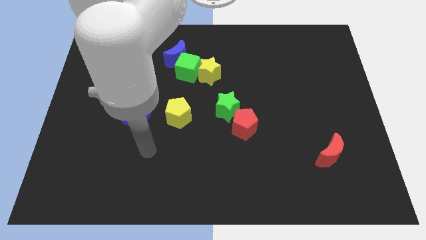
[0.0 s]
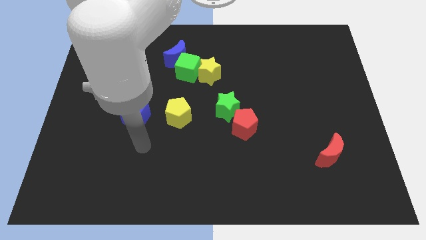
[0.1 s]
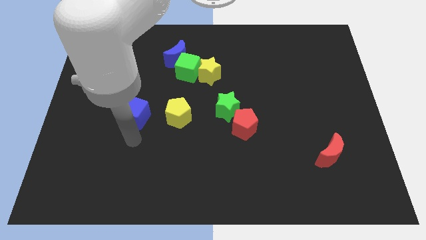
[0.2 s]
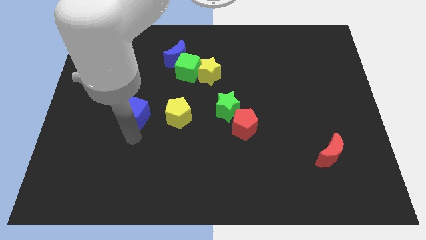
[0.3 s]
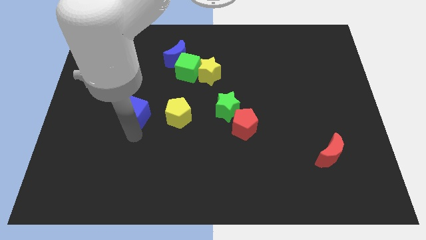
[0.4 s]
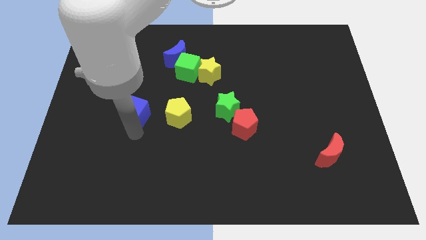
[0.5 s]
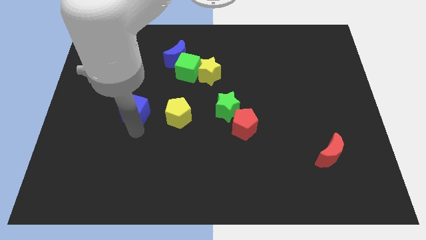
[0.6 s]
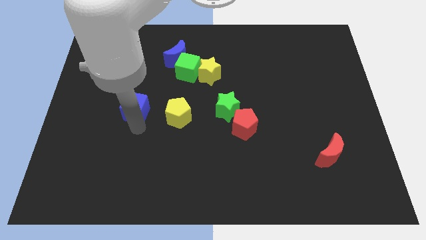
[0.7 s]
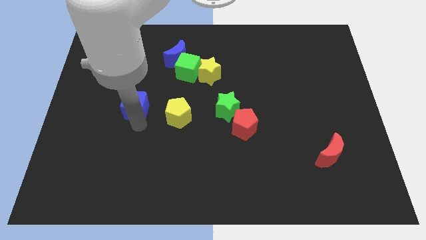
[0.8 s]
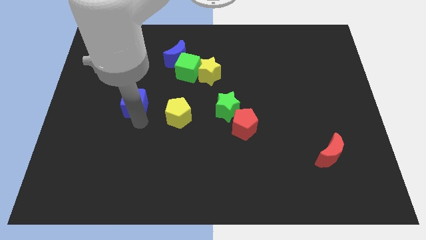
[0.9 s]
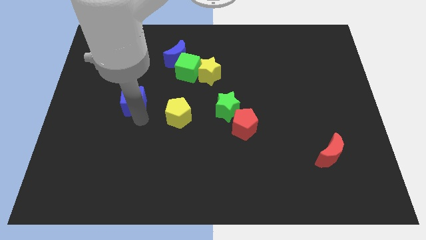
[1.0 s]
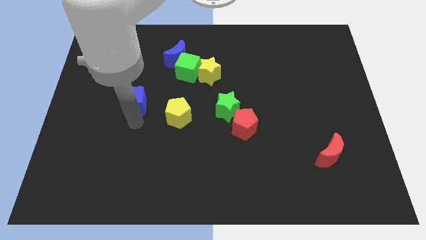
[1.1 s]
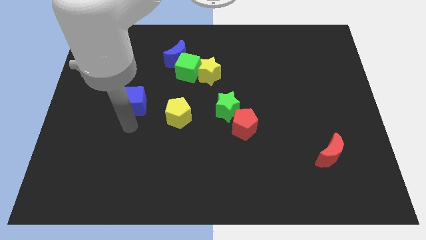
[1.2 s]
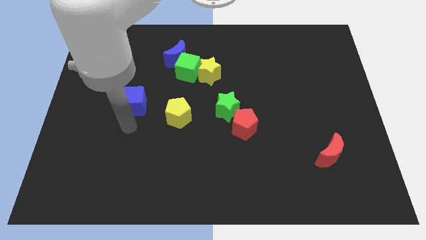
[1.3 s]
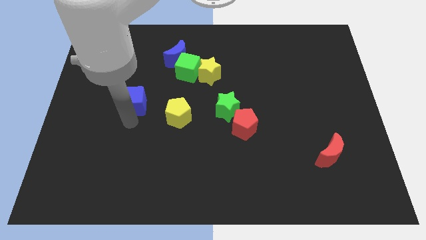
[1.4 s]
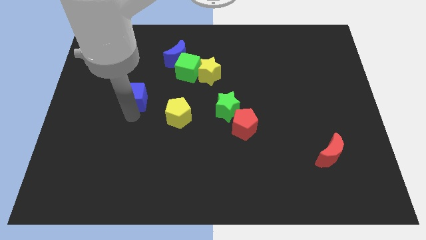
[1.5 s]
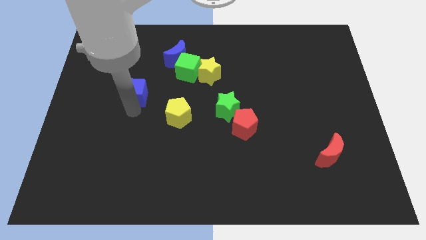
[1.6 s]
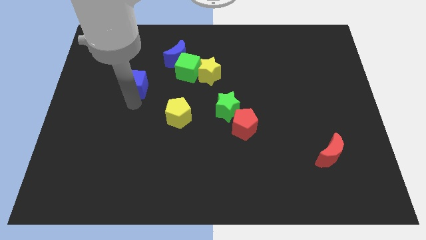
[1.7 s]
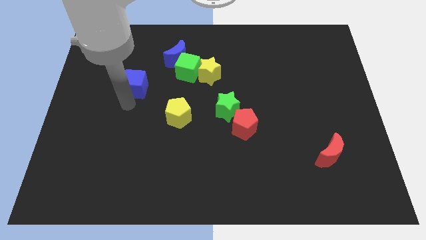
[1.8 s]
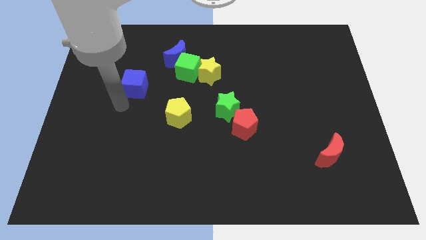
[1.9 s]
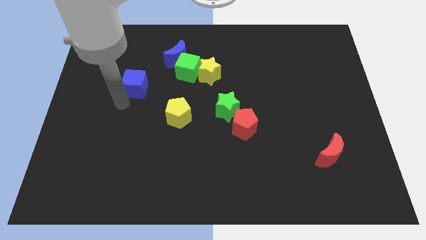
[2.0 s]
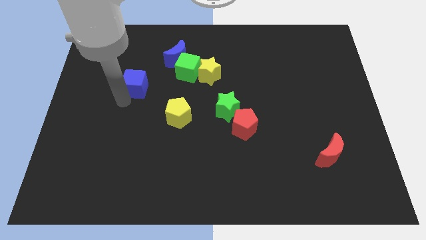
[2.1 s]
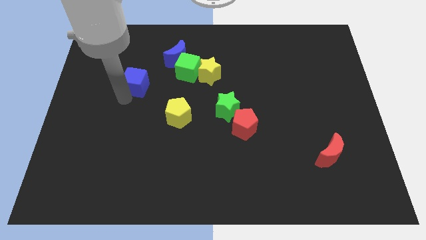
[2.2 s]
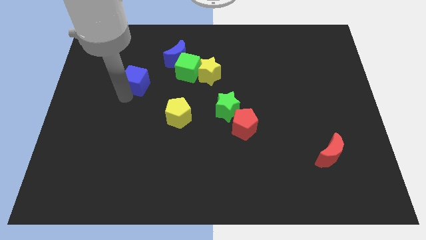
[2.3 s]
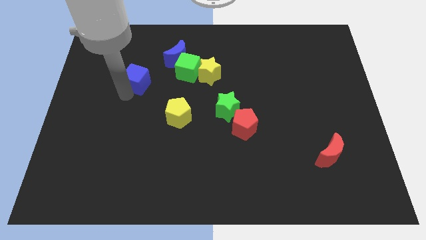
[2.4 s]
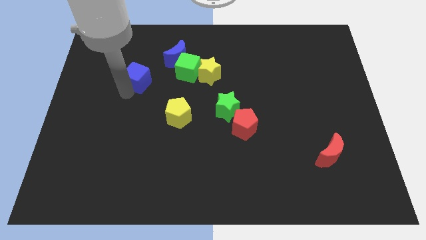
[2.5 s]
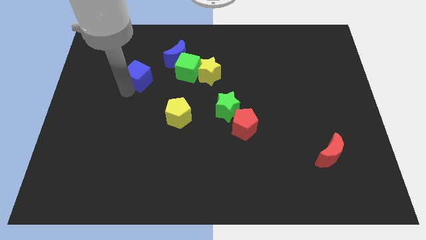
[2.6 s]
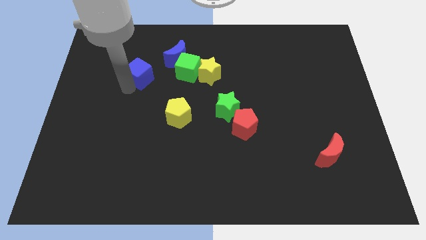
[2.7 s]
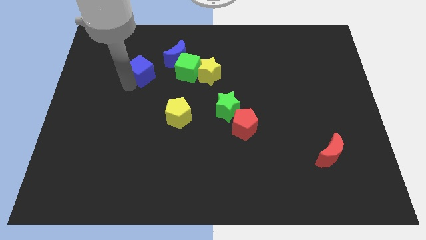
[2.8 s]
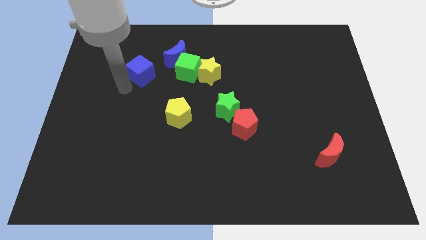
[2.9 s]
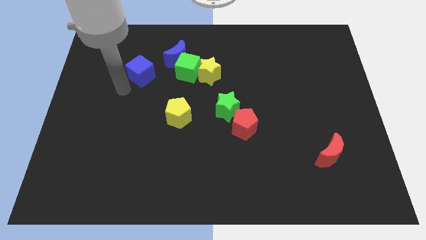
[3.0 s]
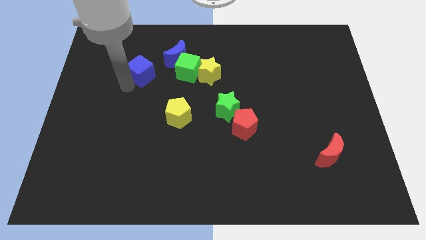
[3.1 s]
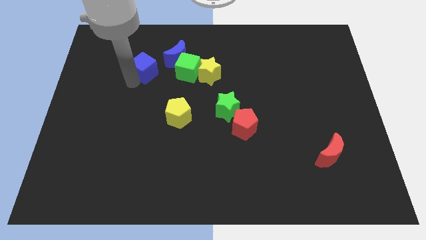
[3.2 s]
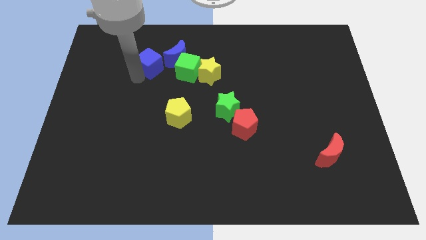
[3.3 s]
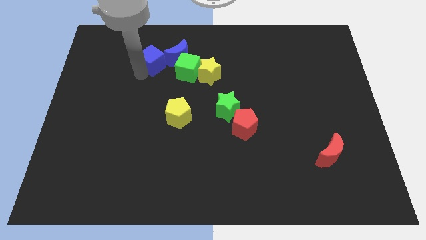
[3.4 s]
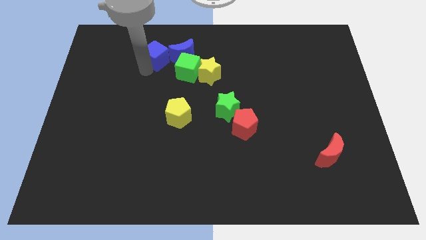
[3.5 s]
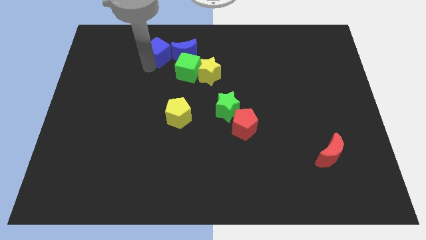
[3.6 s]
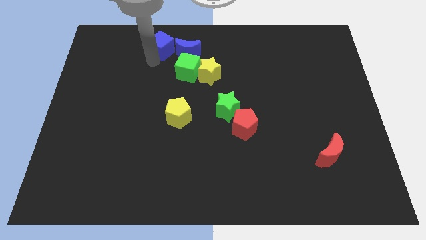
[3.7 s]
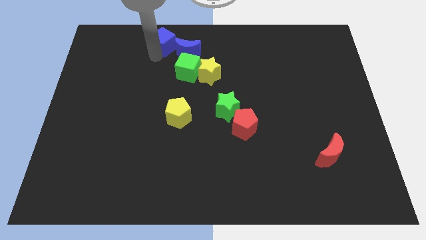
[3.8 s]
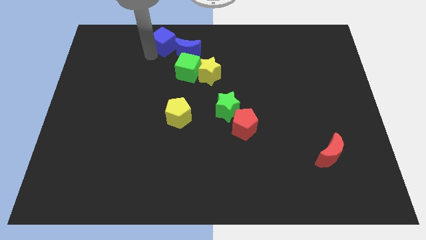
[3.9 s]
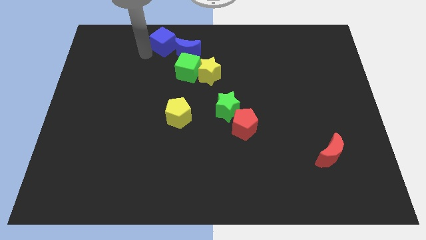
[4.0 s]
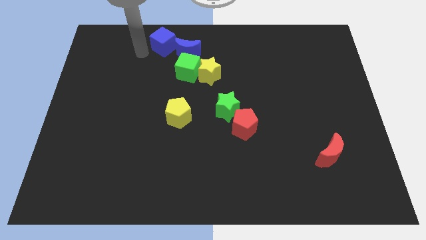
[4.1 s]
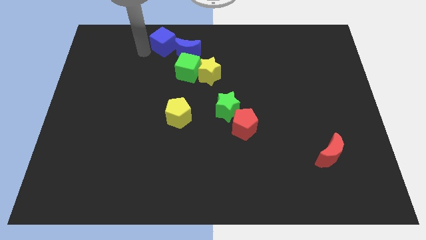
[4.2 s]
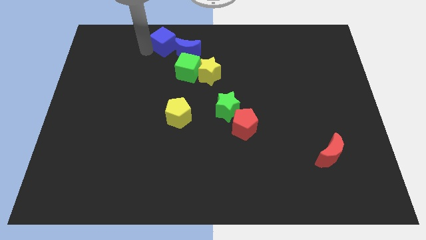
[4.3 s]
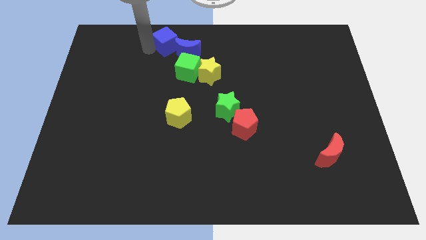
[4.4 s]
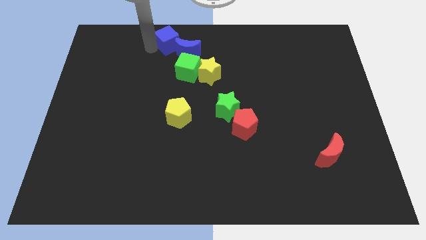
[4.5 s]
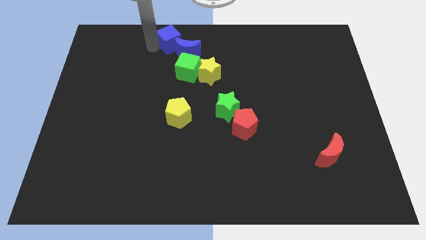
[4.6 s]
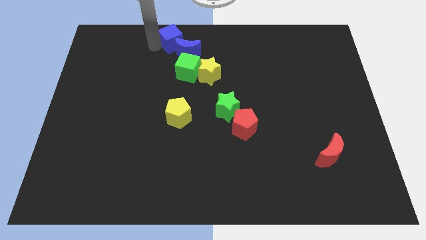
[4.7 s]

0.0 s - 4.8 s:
put the blue cube to the top side

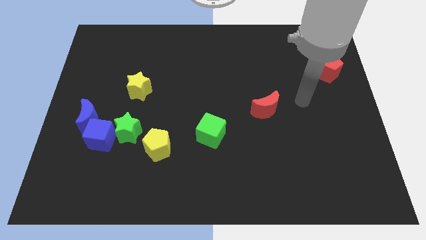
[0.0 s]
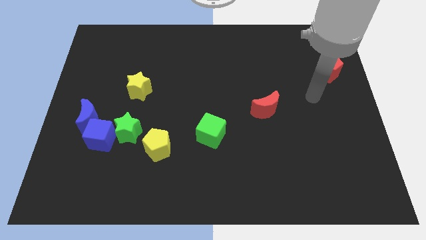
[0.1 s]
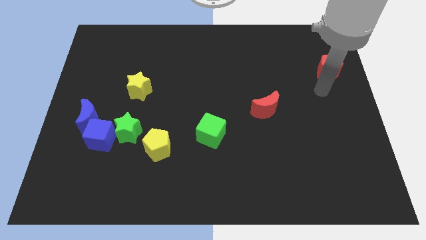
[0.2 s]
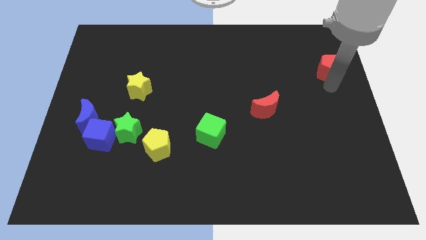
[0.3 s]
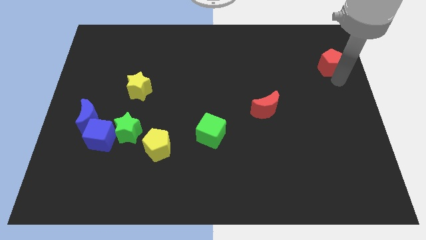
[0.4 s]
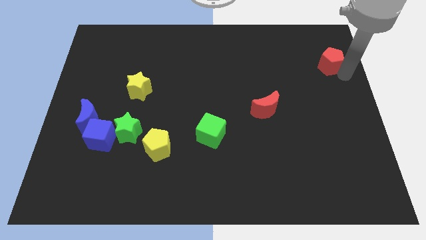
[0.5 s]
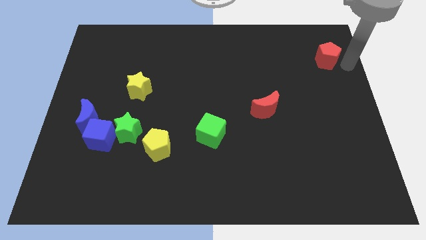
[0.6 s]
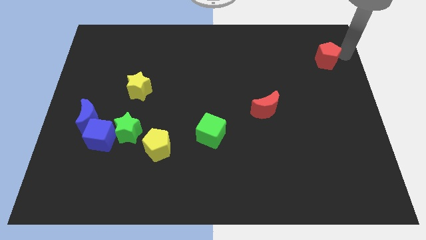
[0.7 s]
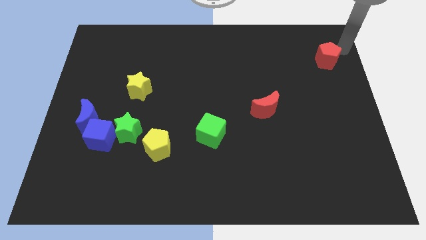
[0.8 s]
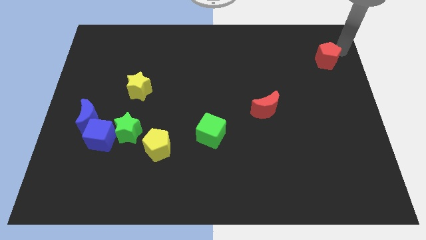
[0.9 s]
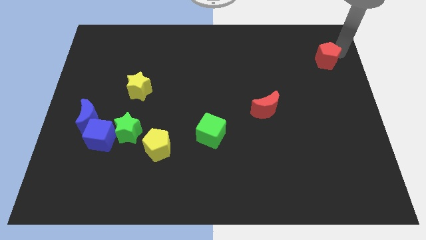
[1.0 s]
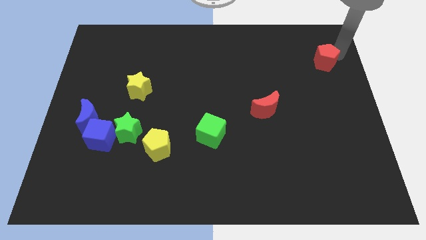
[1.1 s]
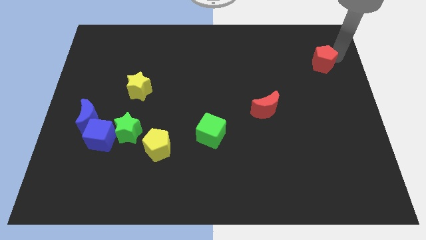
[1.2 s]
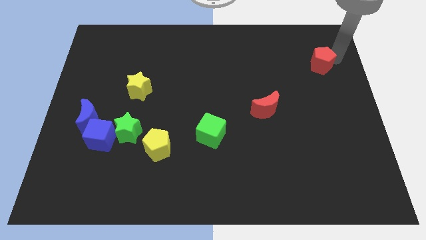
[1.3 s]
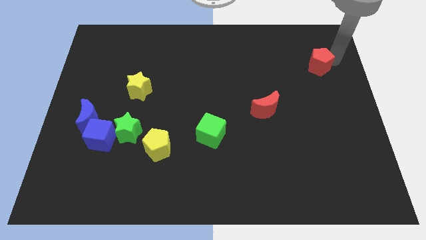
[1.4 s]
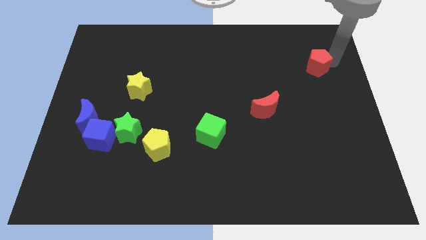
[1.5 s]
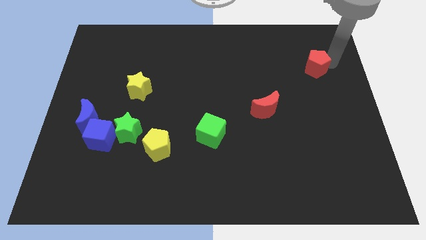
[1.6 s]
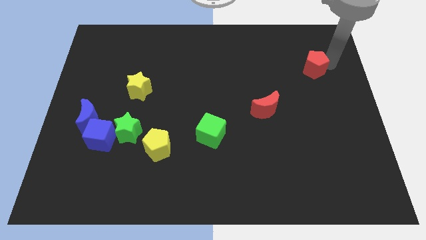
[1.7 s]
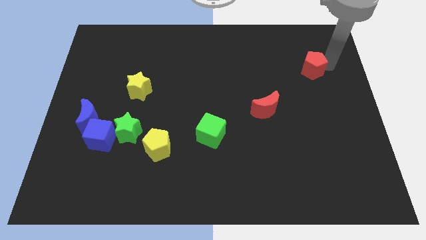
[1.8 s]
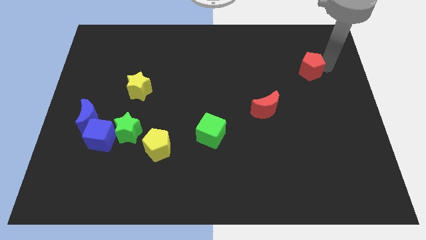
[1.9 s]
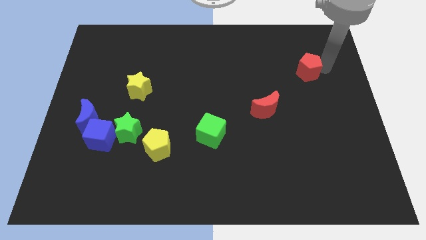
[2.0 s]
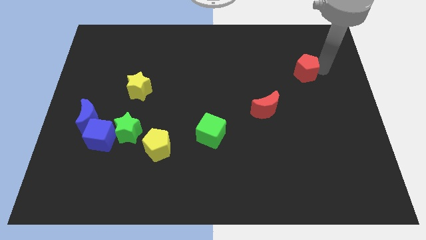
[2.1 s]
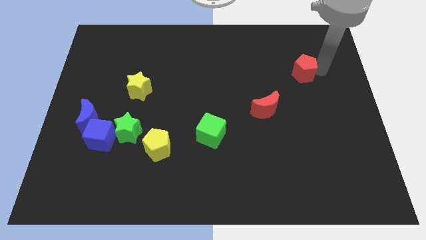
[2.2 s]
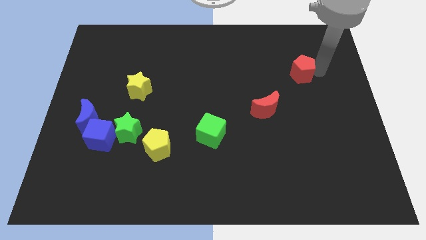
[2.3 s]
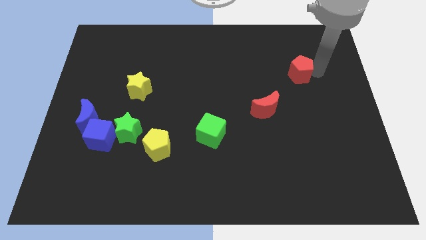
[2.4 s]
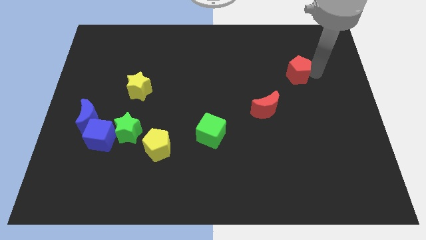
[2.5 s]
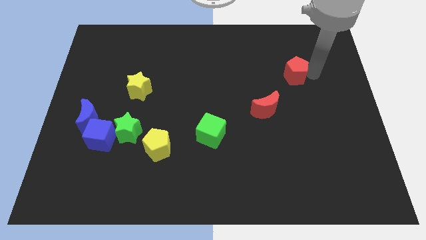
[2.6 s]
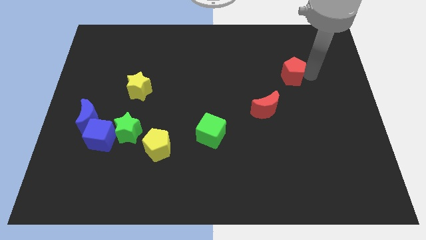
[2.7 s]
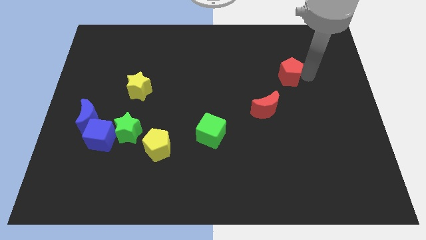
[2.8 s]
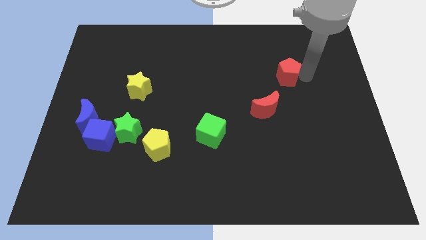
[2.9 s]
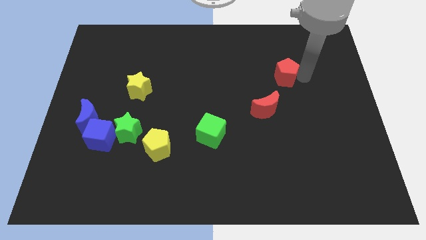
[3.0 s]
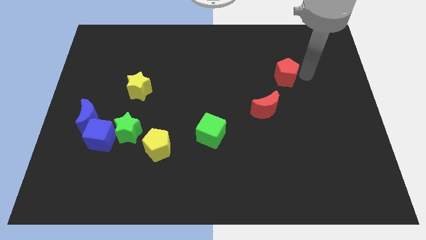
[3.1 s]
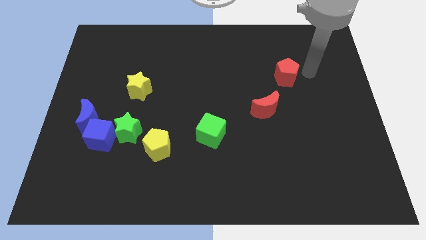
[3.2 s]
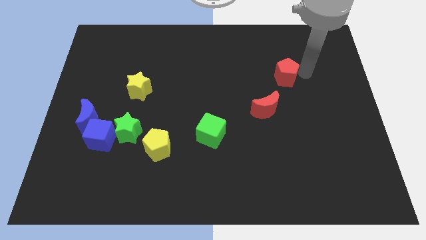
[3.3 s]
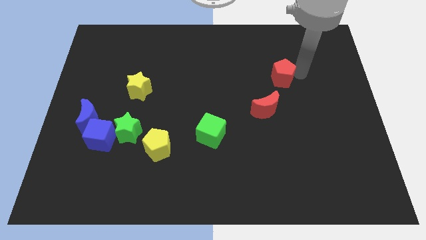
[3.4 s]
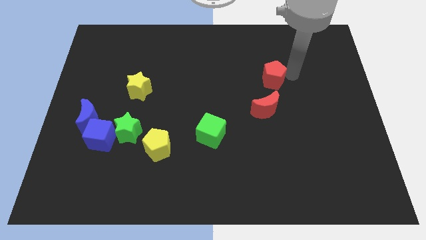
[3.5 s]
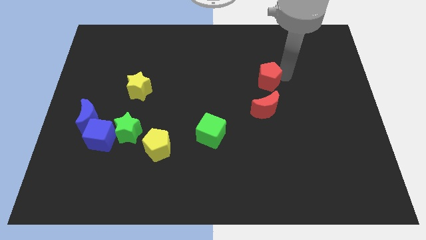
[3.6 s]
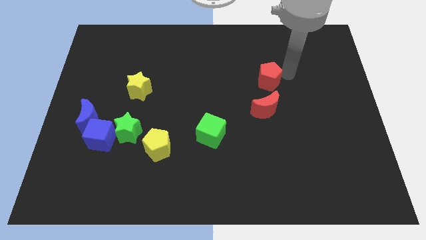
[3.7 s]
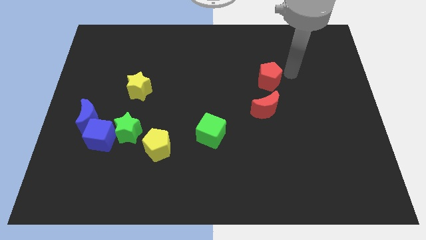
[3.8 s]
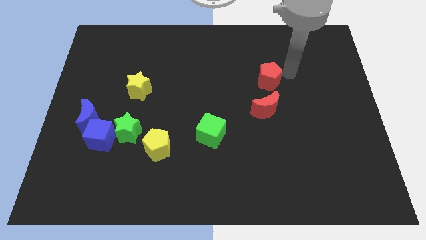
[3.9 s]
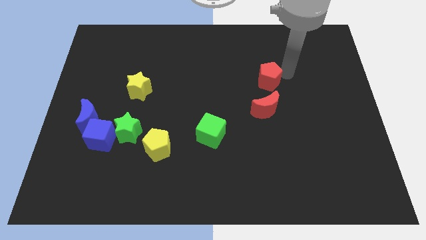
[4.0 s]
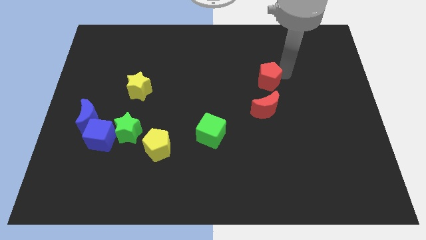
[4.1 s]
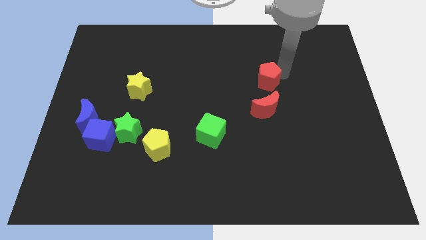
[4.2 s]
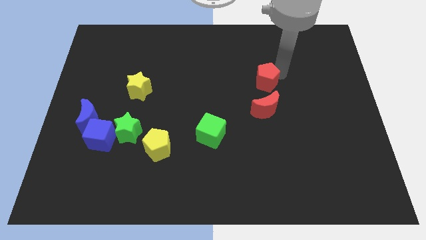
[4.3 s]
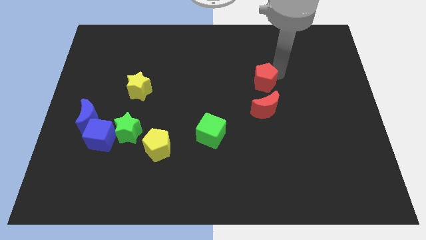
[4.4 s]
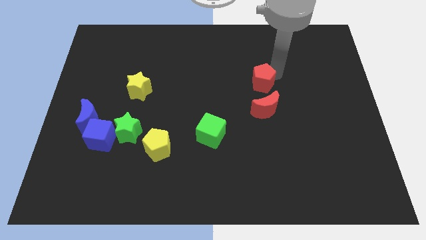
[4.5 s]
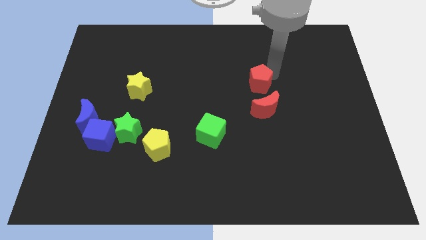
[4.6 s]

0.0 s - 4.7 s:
put the red pentagon to the center of the board
